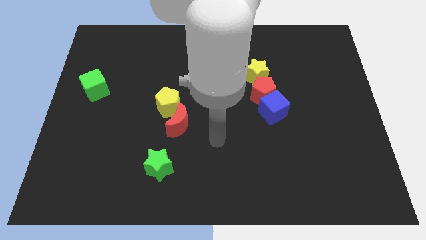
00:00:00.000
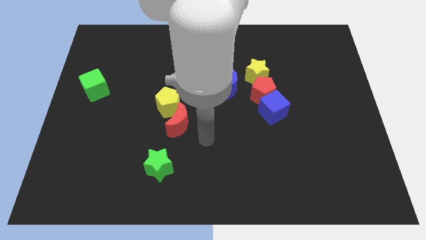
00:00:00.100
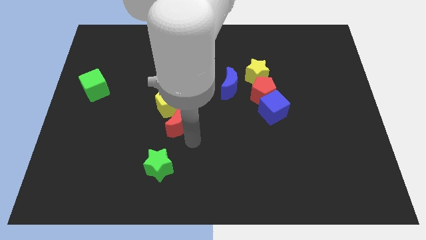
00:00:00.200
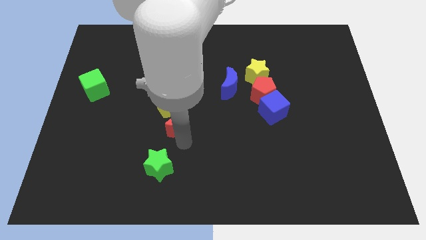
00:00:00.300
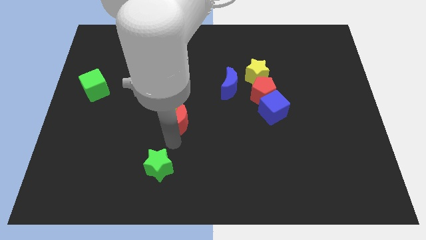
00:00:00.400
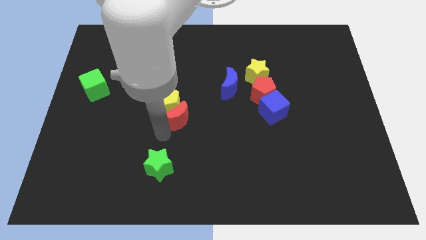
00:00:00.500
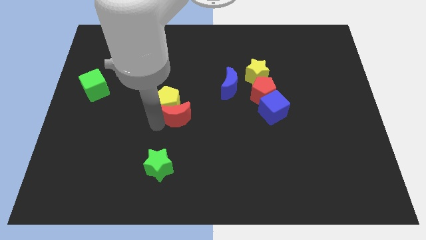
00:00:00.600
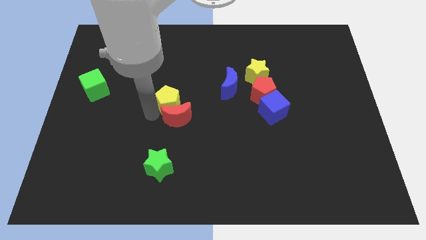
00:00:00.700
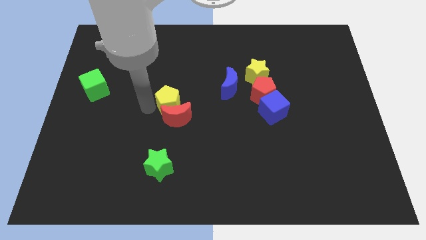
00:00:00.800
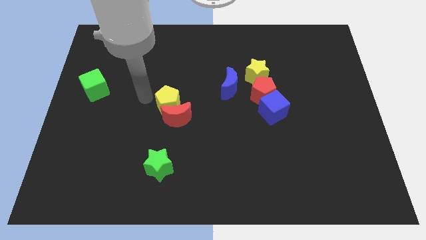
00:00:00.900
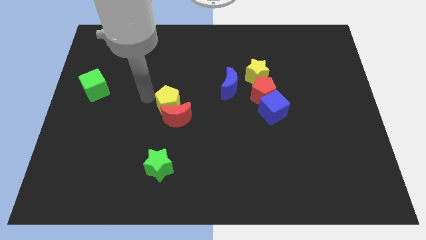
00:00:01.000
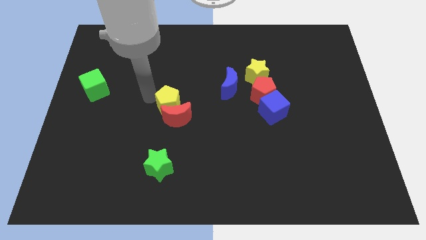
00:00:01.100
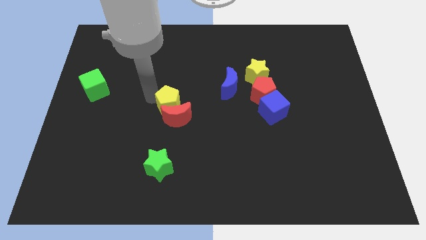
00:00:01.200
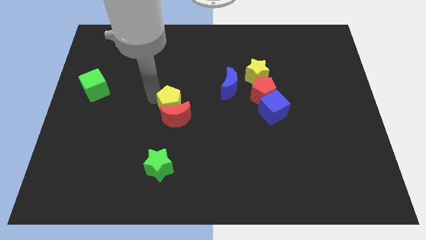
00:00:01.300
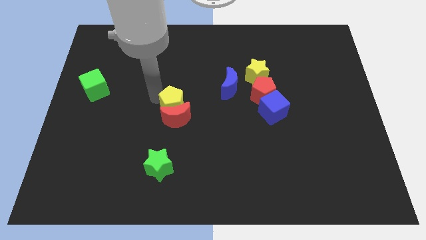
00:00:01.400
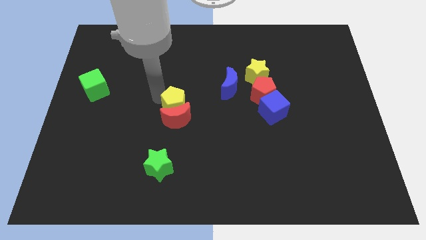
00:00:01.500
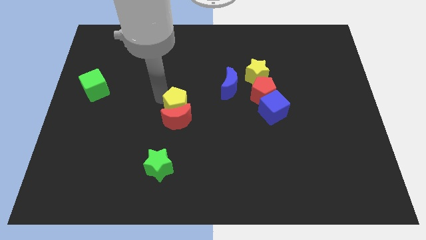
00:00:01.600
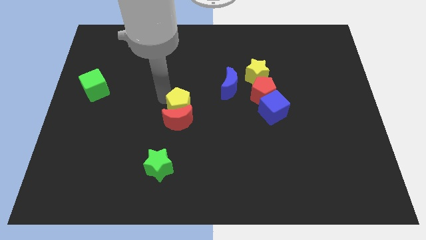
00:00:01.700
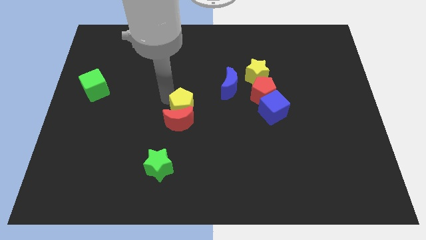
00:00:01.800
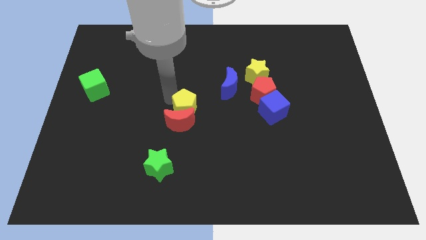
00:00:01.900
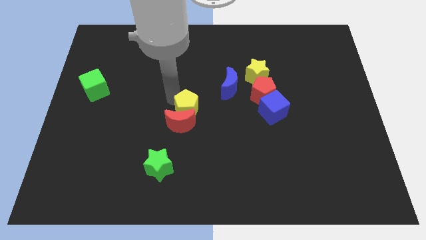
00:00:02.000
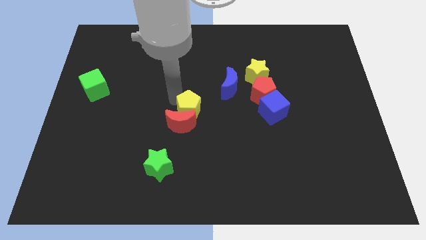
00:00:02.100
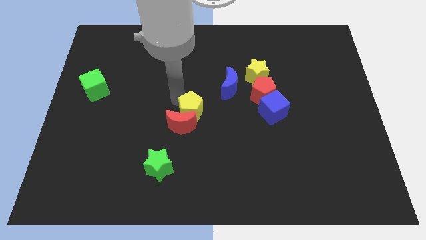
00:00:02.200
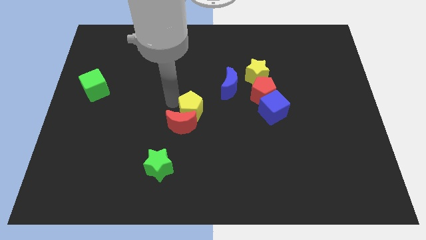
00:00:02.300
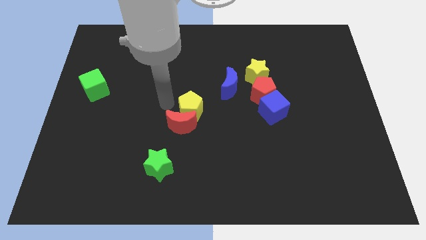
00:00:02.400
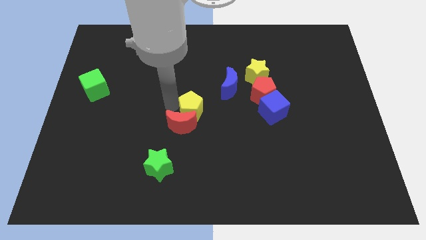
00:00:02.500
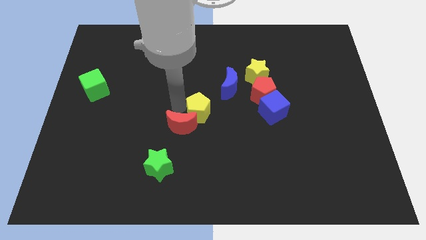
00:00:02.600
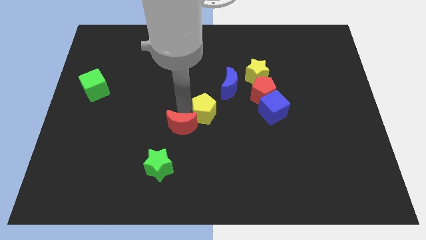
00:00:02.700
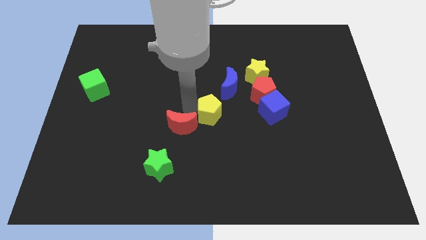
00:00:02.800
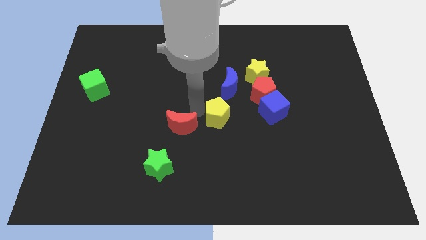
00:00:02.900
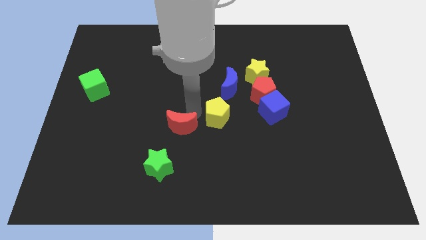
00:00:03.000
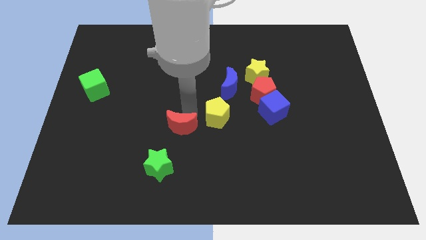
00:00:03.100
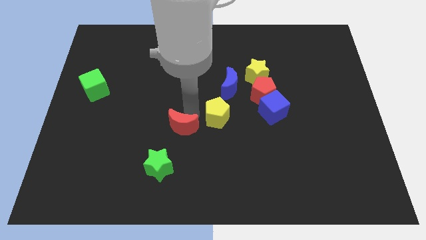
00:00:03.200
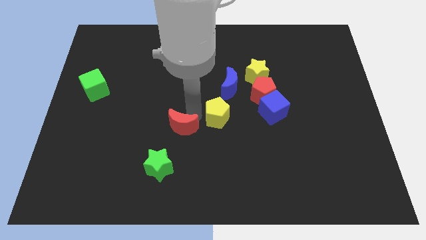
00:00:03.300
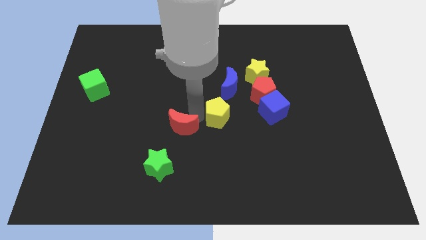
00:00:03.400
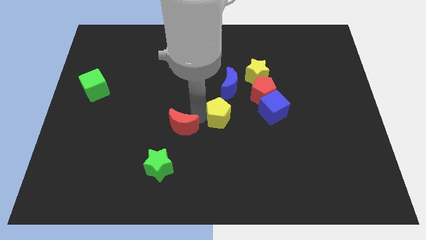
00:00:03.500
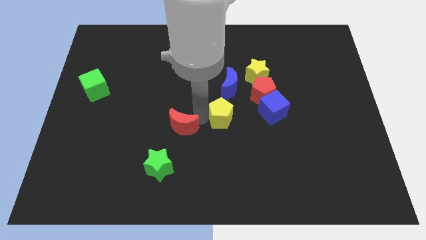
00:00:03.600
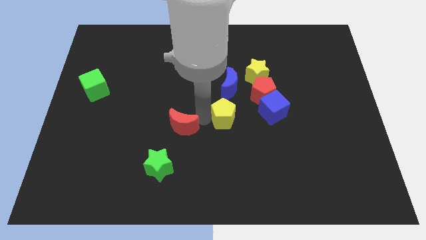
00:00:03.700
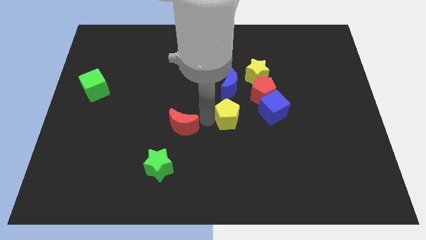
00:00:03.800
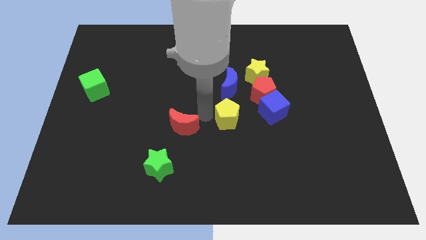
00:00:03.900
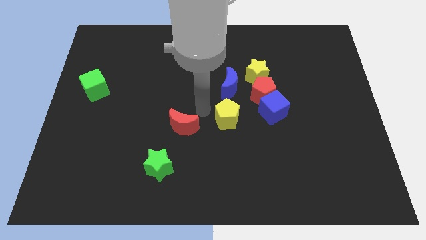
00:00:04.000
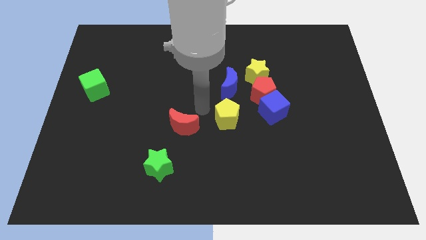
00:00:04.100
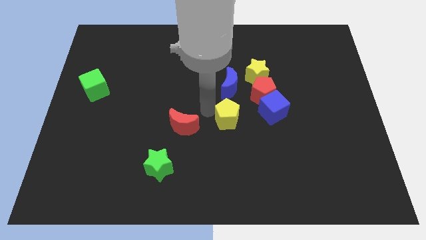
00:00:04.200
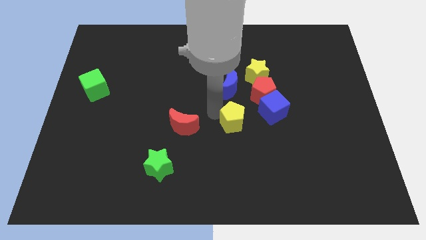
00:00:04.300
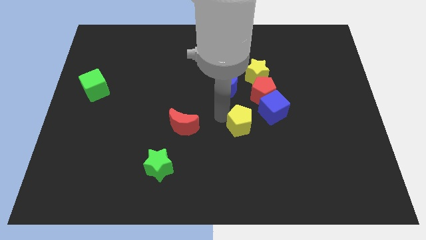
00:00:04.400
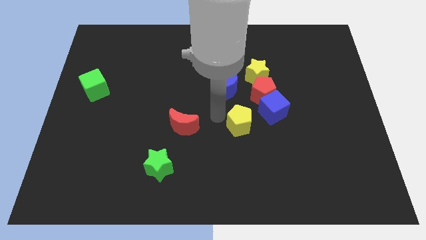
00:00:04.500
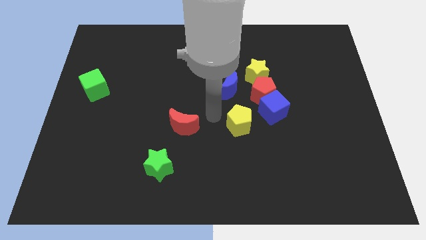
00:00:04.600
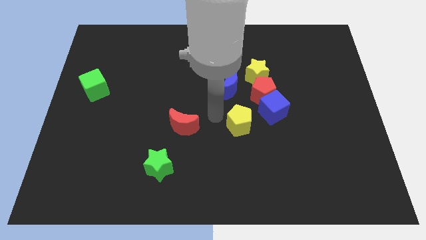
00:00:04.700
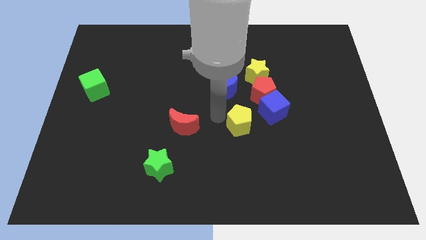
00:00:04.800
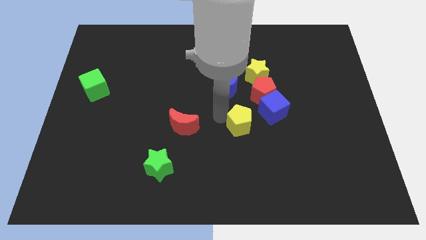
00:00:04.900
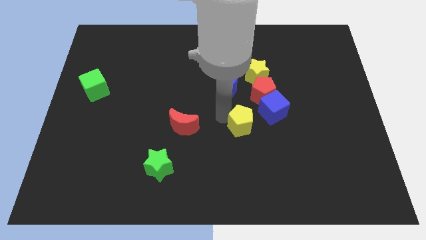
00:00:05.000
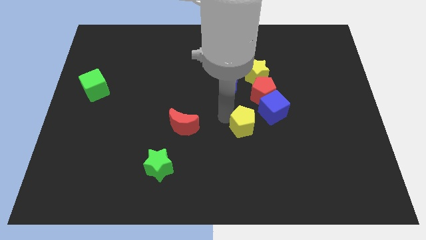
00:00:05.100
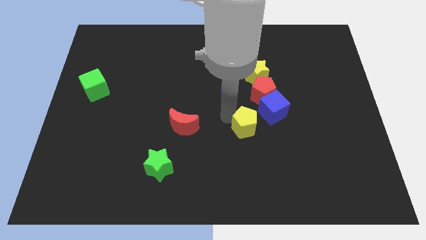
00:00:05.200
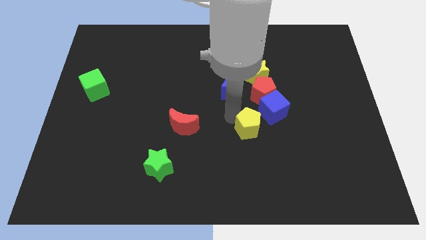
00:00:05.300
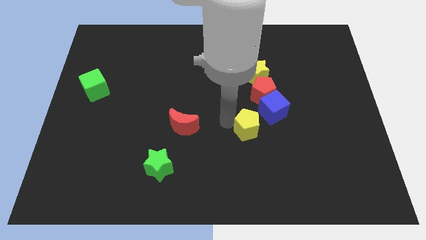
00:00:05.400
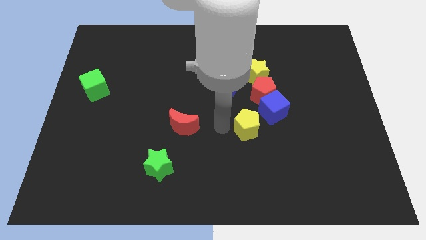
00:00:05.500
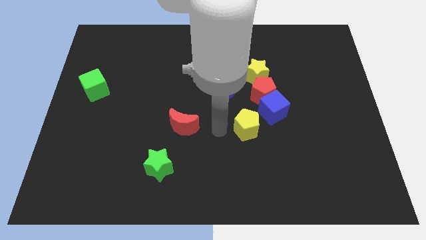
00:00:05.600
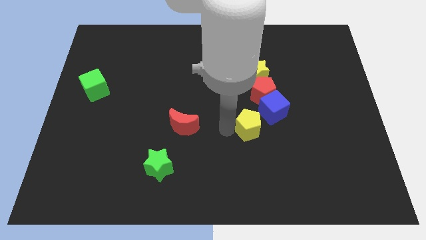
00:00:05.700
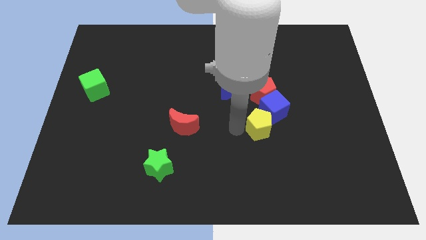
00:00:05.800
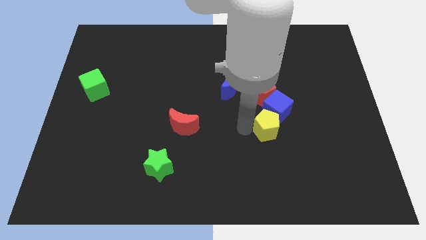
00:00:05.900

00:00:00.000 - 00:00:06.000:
push the yellow pentagon right

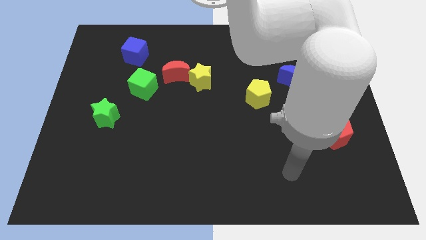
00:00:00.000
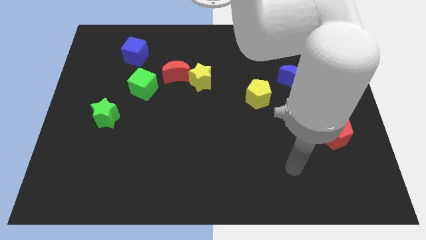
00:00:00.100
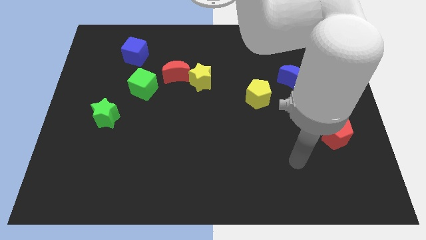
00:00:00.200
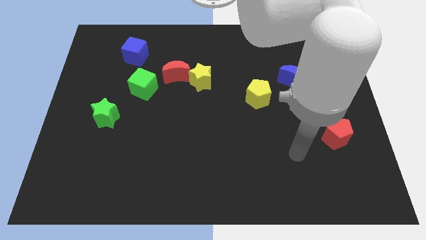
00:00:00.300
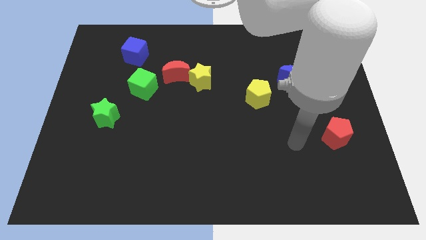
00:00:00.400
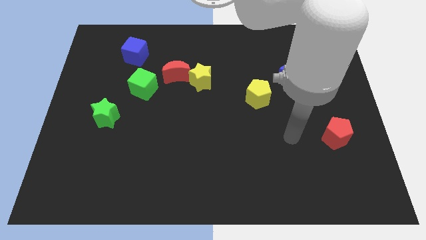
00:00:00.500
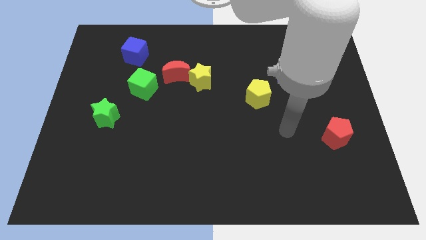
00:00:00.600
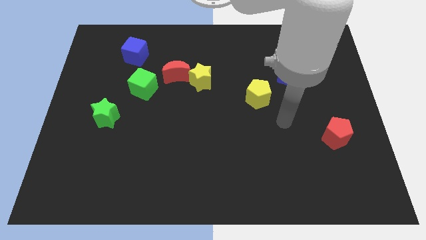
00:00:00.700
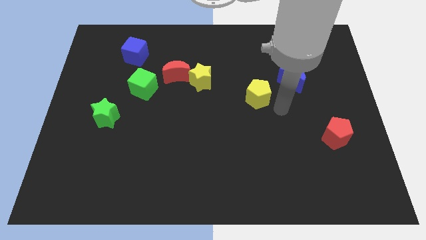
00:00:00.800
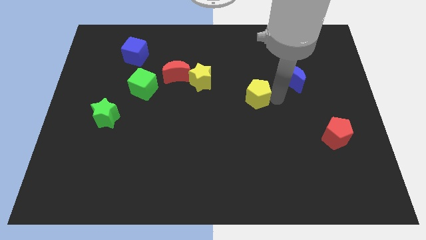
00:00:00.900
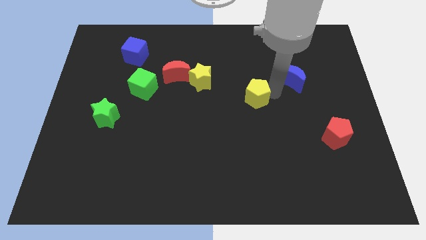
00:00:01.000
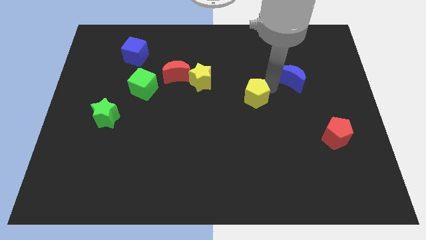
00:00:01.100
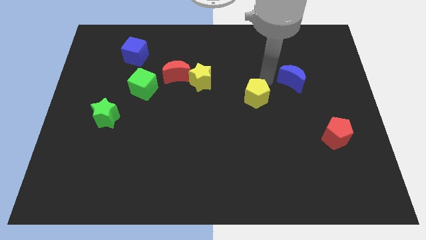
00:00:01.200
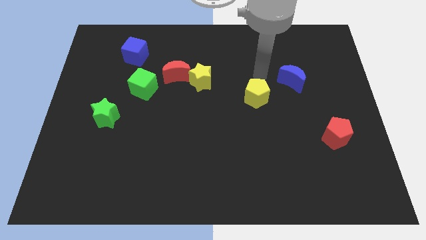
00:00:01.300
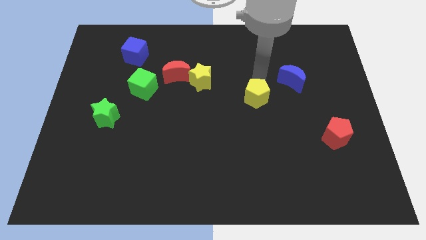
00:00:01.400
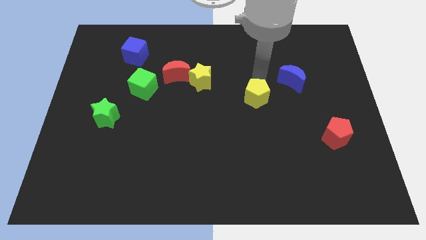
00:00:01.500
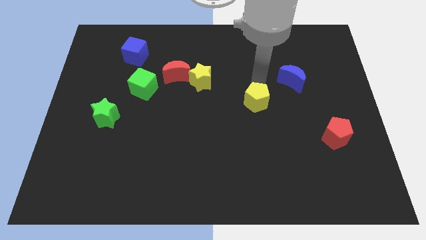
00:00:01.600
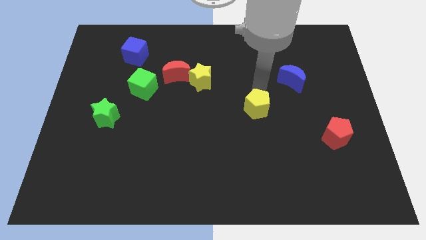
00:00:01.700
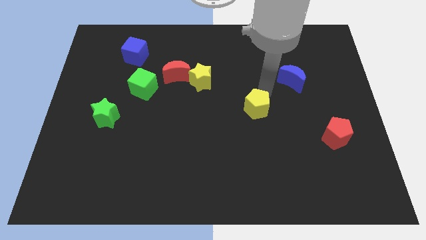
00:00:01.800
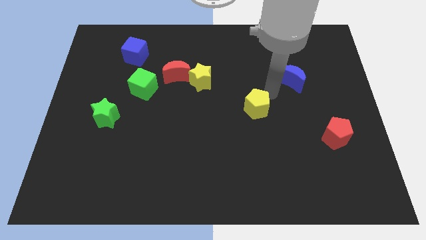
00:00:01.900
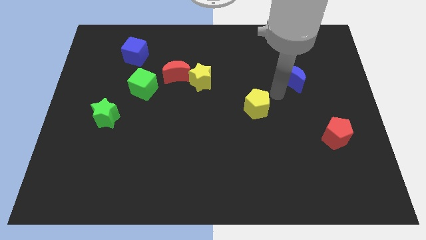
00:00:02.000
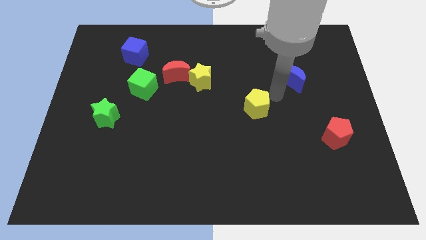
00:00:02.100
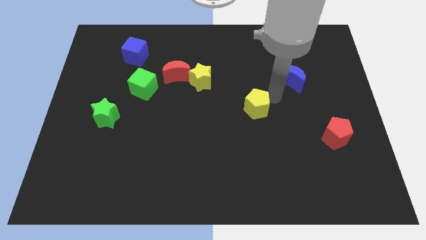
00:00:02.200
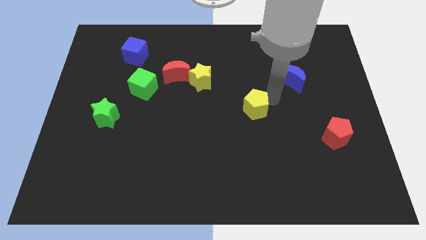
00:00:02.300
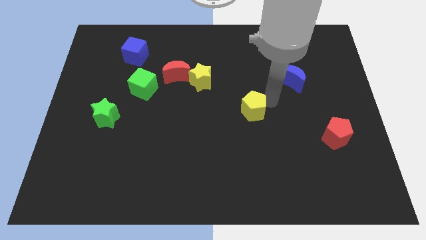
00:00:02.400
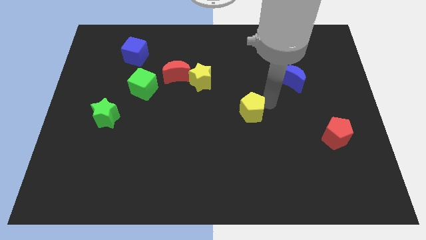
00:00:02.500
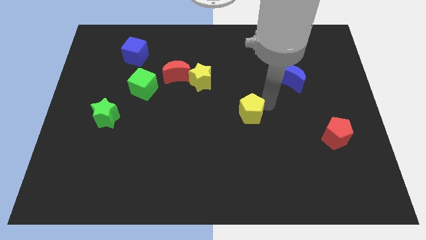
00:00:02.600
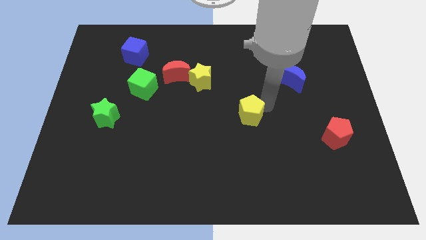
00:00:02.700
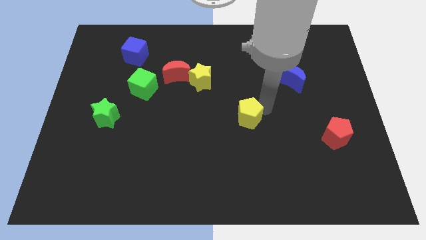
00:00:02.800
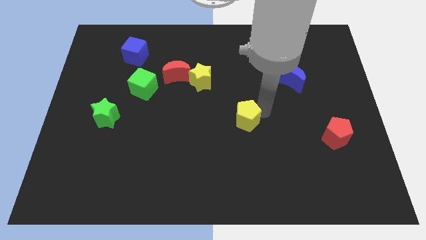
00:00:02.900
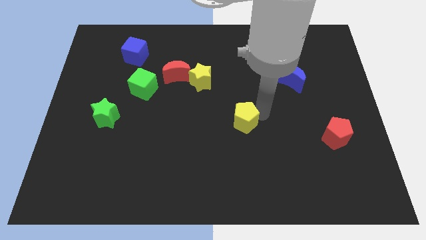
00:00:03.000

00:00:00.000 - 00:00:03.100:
move the yellow pentagon downwards and left diagonally somewhat
